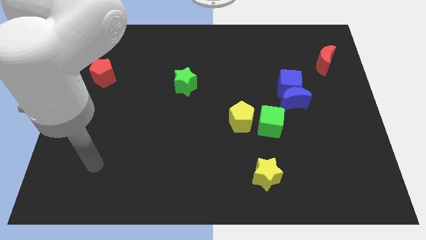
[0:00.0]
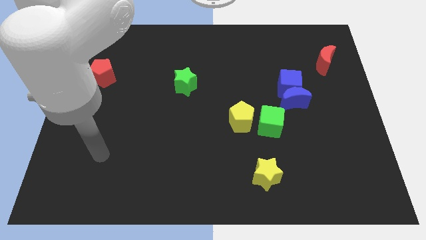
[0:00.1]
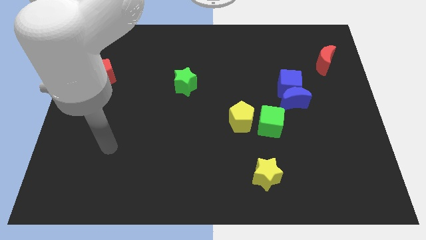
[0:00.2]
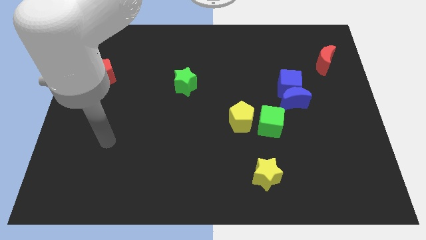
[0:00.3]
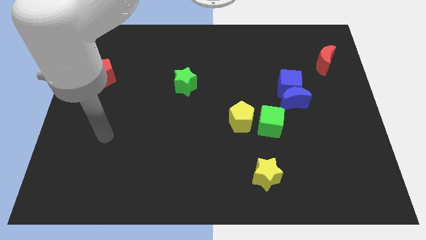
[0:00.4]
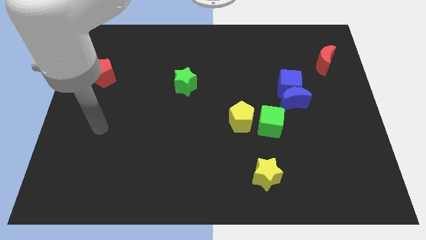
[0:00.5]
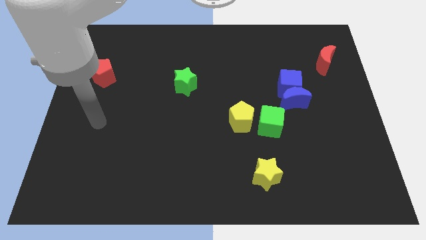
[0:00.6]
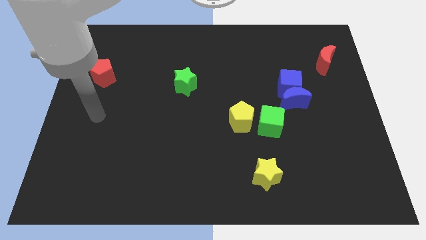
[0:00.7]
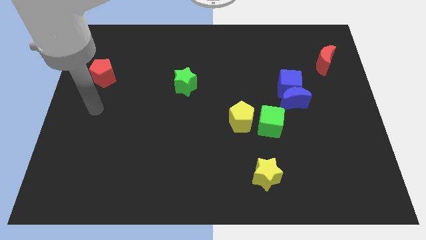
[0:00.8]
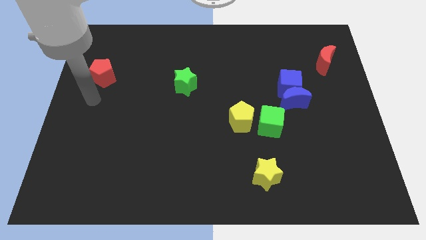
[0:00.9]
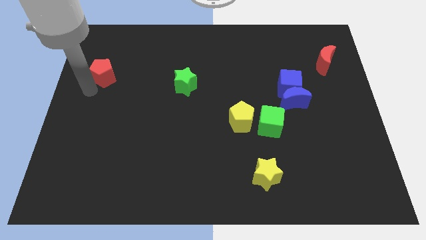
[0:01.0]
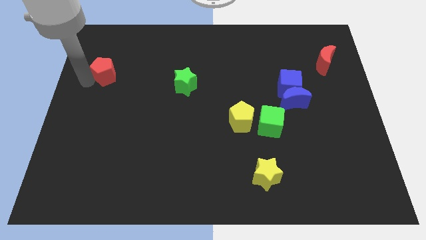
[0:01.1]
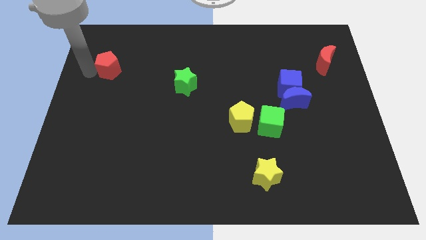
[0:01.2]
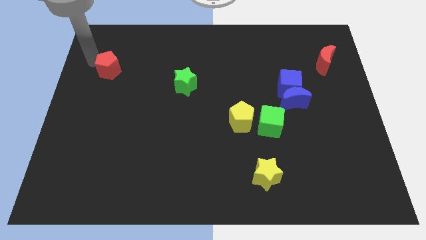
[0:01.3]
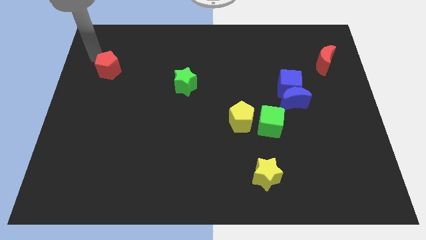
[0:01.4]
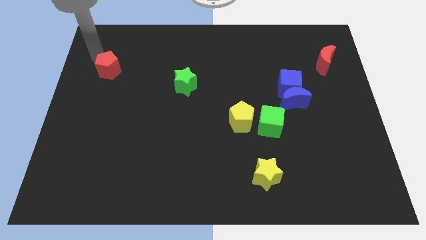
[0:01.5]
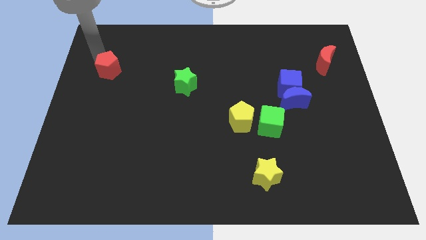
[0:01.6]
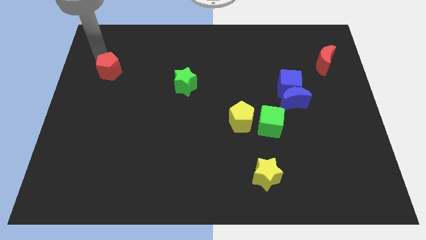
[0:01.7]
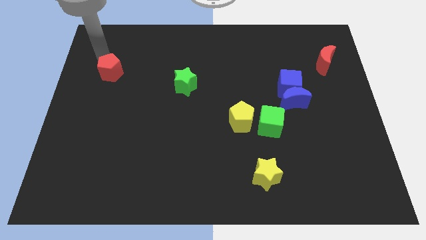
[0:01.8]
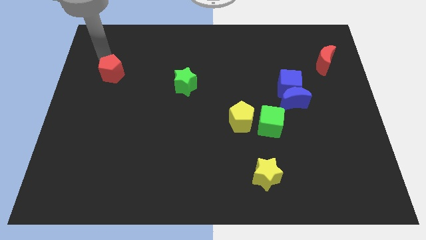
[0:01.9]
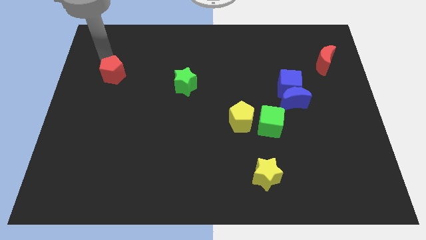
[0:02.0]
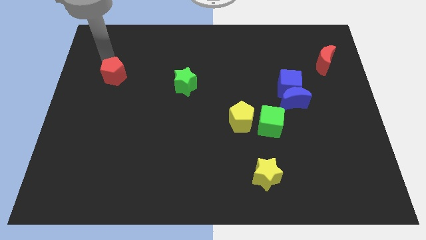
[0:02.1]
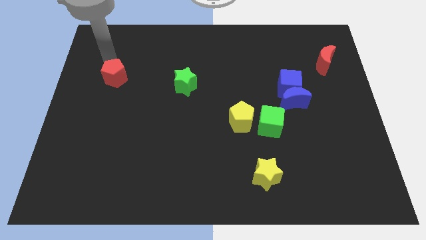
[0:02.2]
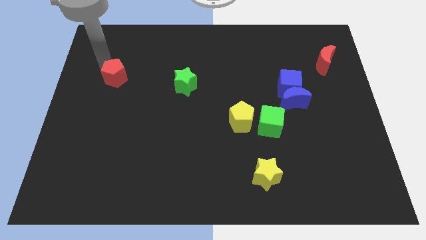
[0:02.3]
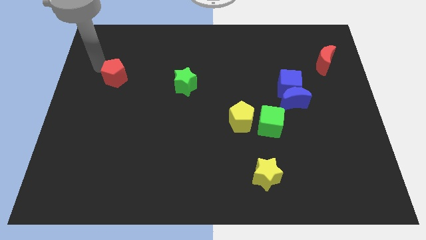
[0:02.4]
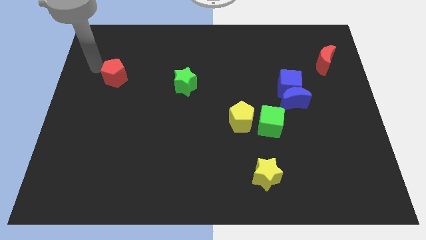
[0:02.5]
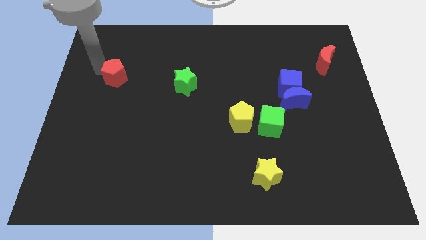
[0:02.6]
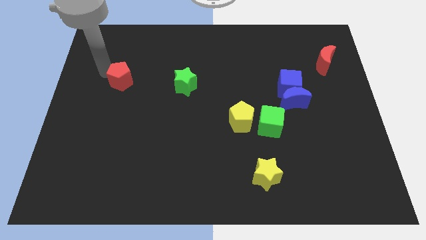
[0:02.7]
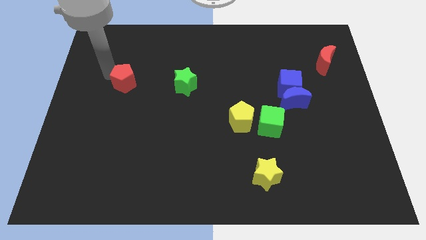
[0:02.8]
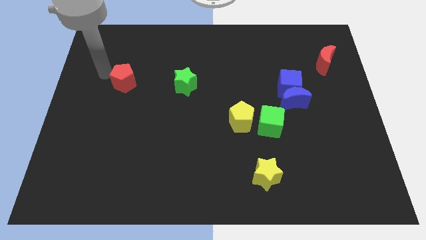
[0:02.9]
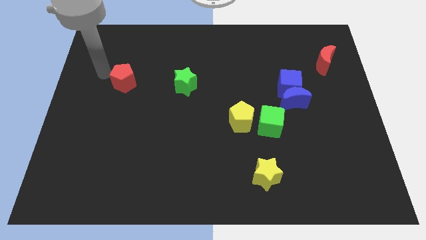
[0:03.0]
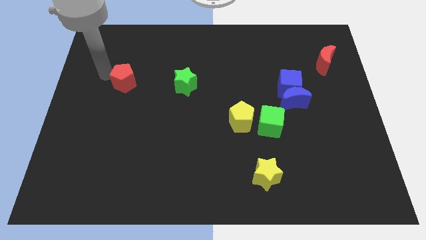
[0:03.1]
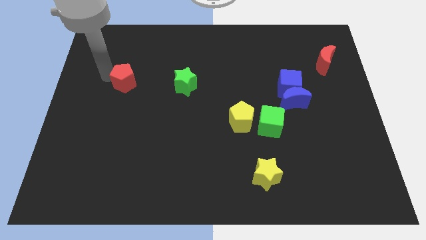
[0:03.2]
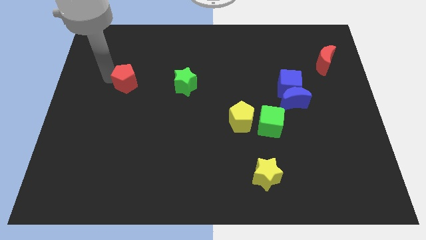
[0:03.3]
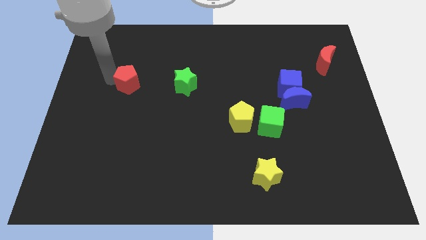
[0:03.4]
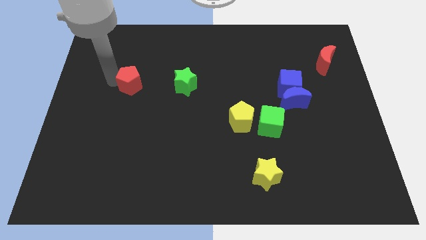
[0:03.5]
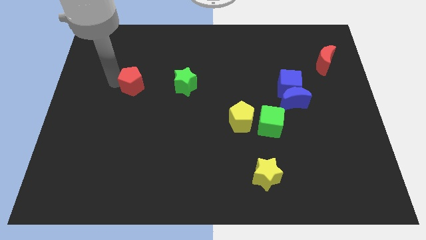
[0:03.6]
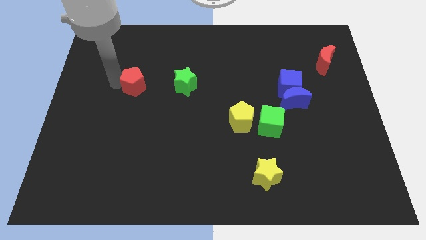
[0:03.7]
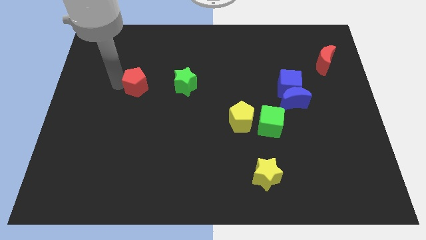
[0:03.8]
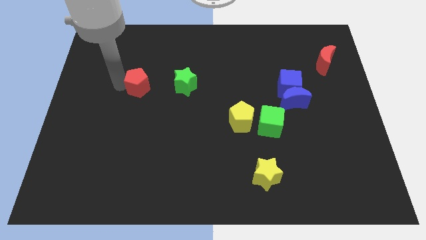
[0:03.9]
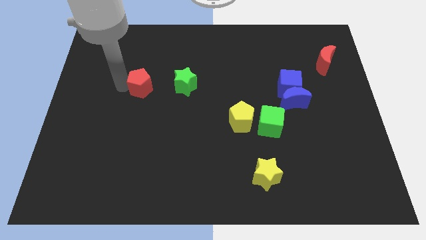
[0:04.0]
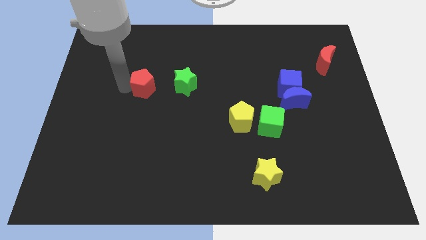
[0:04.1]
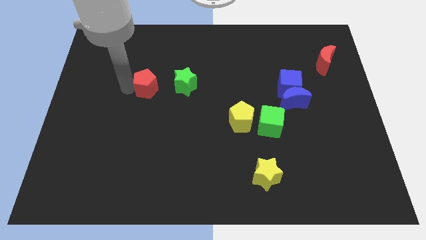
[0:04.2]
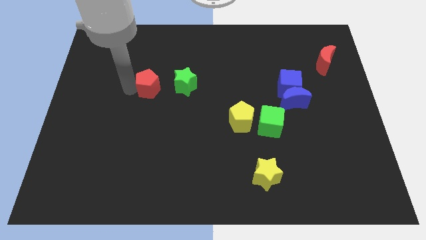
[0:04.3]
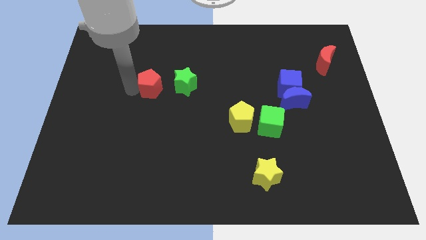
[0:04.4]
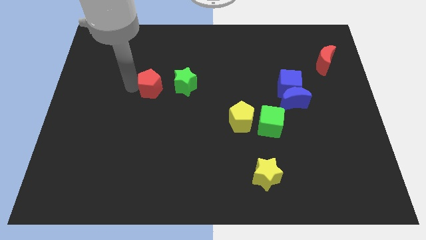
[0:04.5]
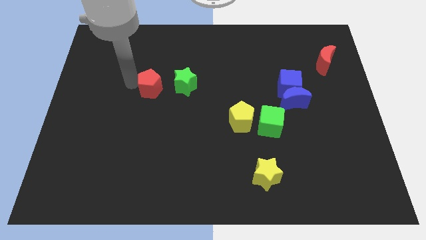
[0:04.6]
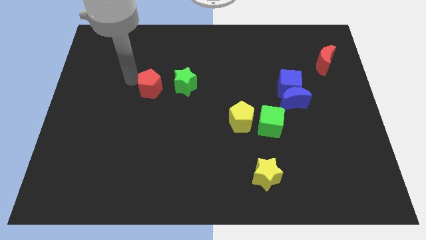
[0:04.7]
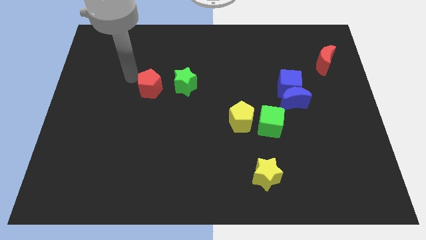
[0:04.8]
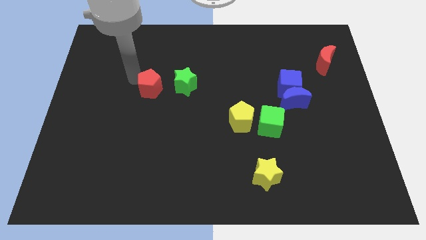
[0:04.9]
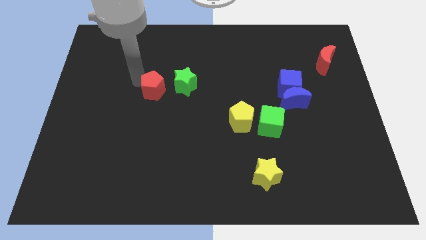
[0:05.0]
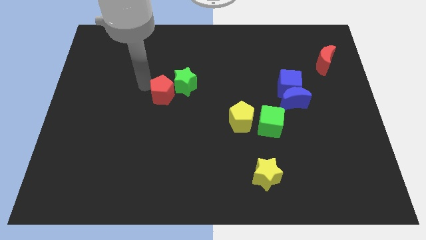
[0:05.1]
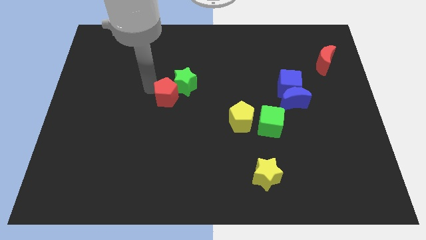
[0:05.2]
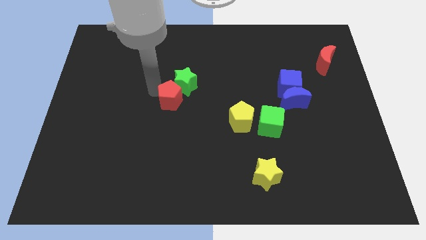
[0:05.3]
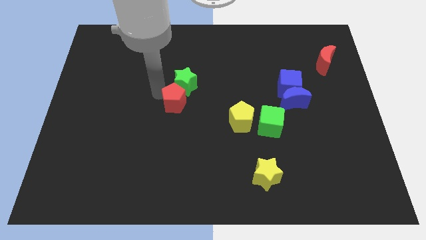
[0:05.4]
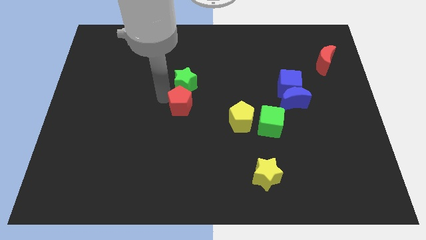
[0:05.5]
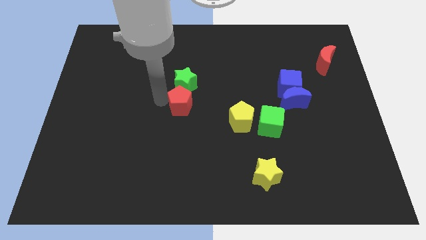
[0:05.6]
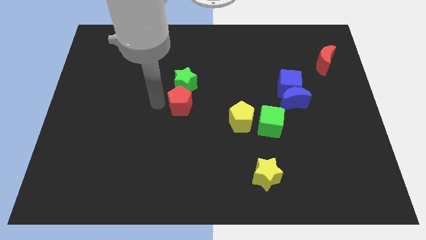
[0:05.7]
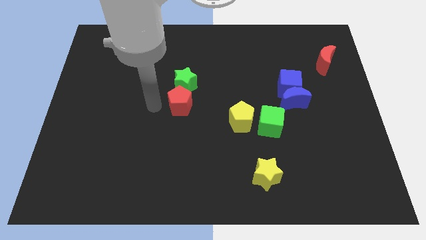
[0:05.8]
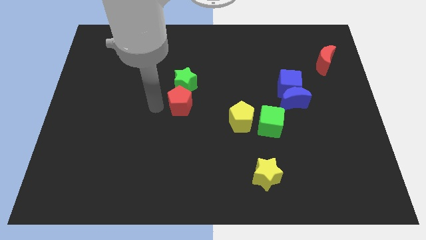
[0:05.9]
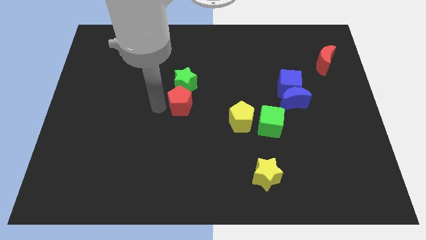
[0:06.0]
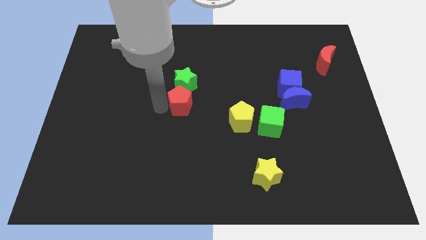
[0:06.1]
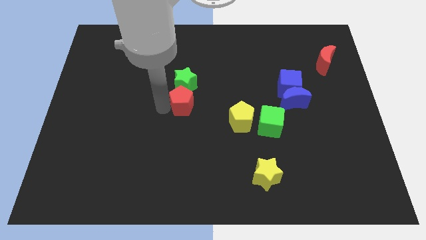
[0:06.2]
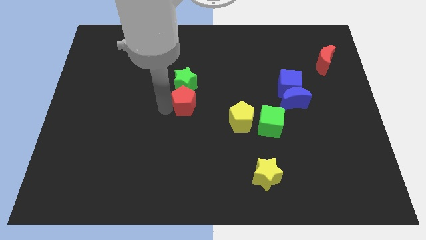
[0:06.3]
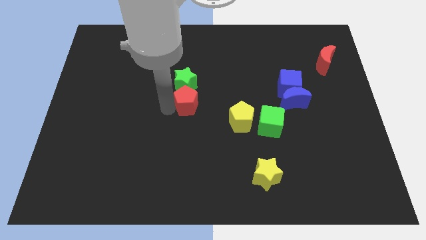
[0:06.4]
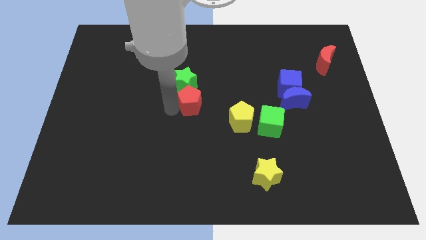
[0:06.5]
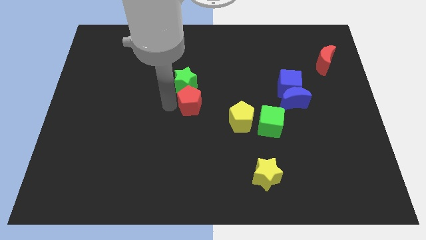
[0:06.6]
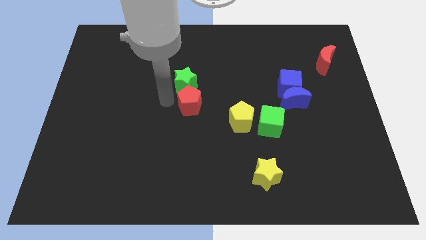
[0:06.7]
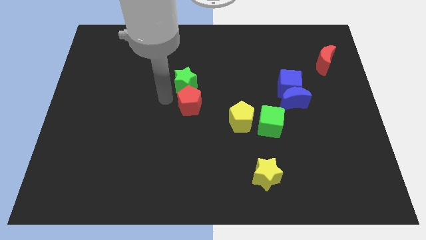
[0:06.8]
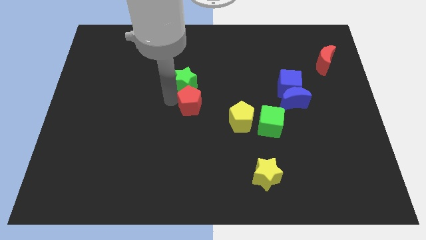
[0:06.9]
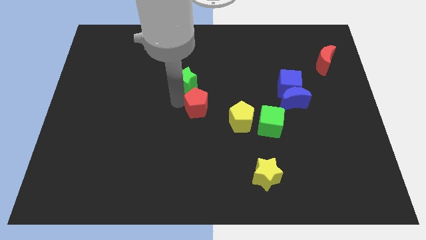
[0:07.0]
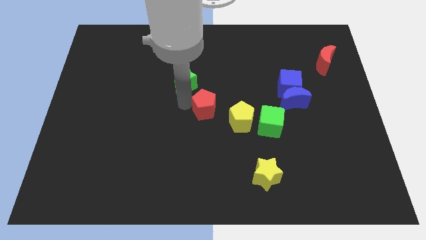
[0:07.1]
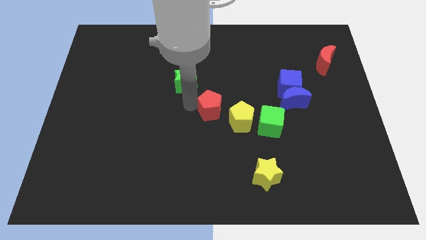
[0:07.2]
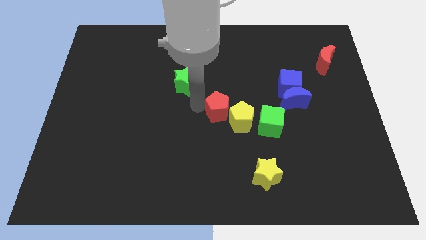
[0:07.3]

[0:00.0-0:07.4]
push the red pentagon next to the yellow pentagon
